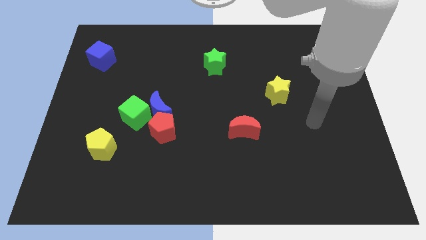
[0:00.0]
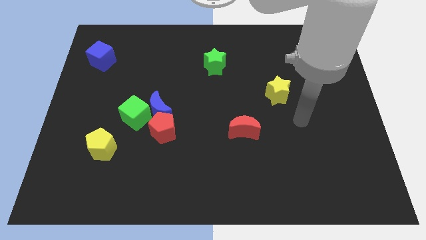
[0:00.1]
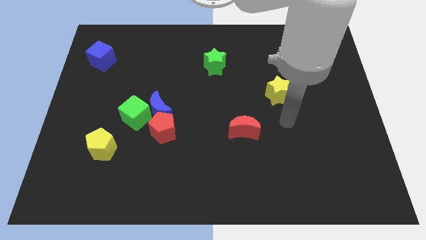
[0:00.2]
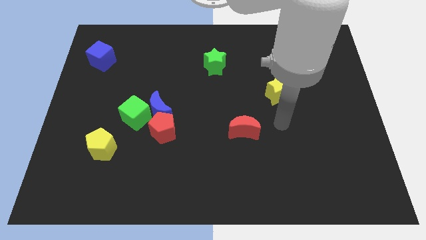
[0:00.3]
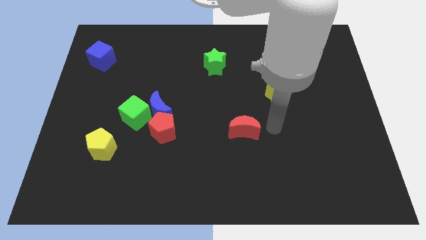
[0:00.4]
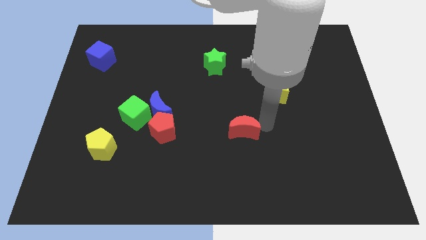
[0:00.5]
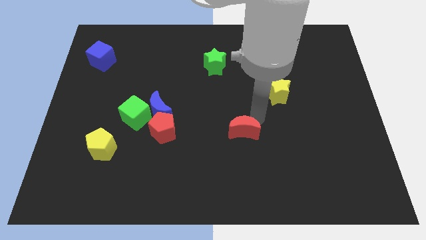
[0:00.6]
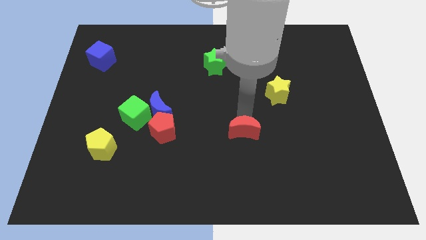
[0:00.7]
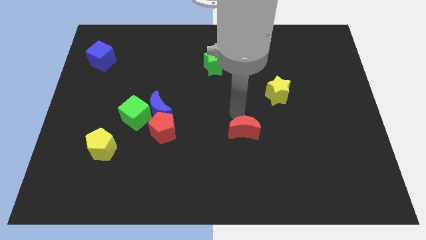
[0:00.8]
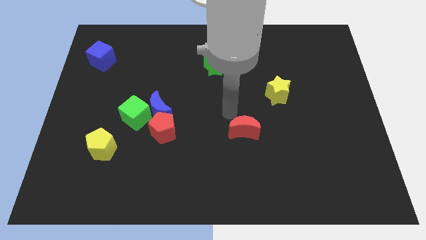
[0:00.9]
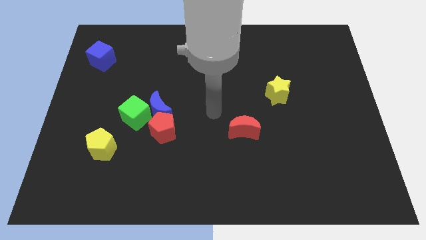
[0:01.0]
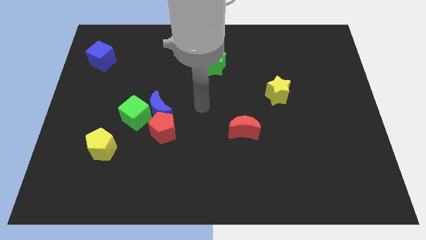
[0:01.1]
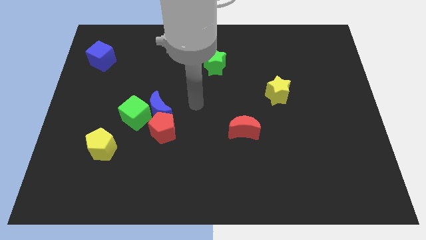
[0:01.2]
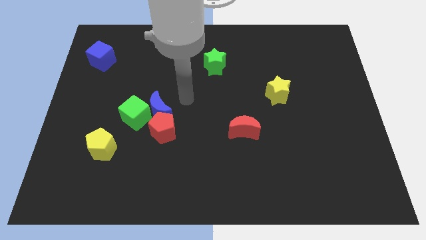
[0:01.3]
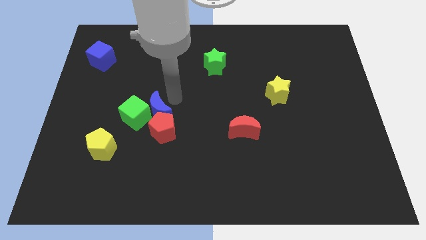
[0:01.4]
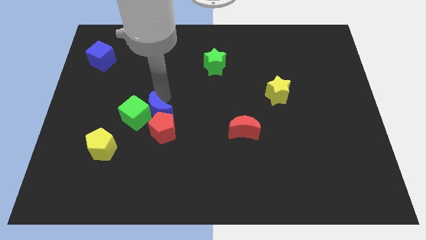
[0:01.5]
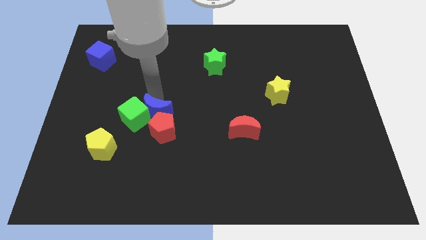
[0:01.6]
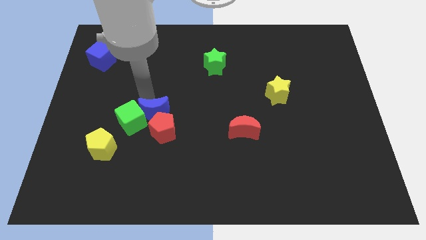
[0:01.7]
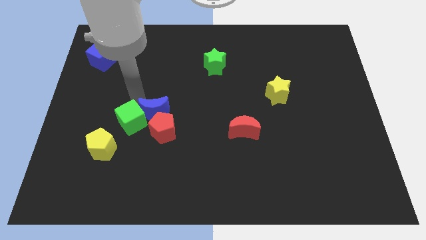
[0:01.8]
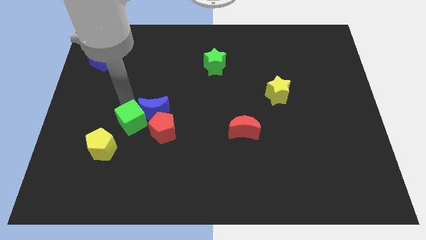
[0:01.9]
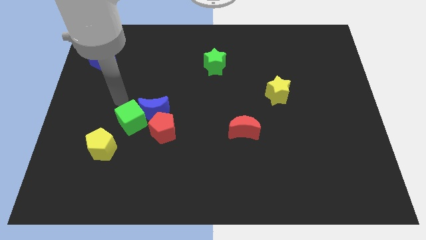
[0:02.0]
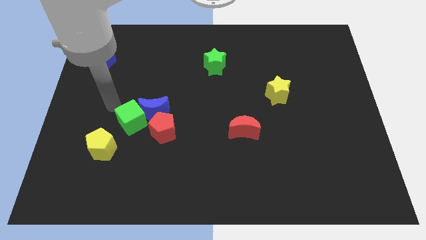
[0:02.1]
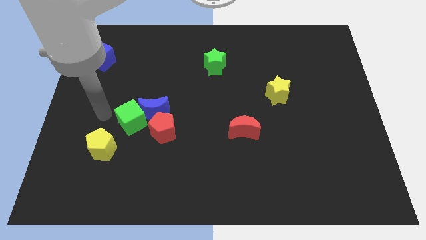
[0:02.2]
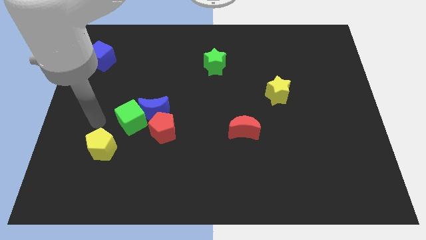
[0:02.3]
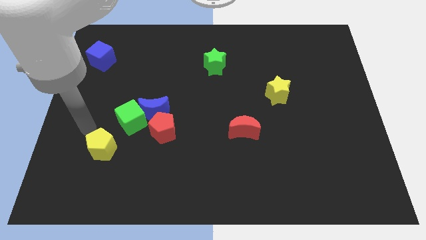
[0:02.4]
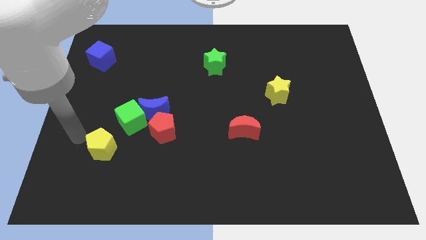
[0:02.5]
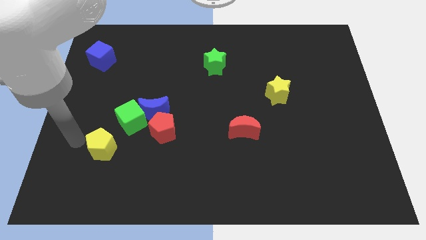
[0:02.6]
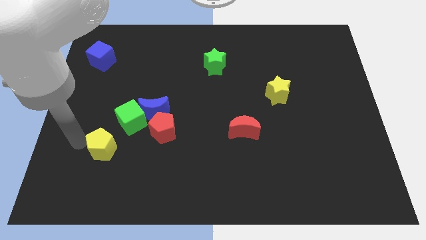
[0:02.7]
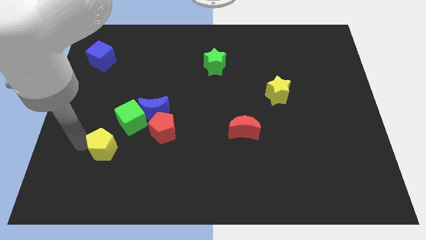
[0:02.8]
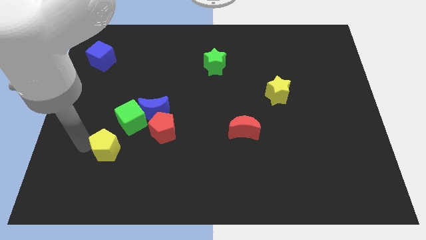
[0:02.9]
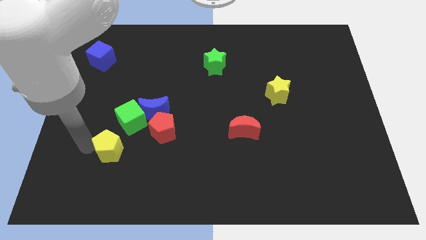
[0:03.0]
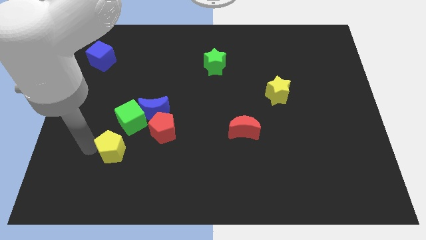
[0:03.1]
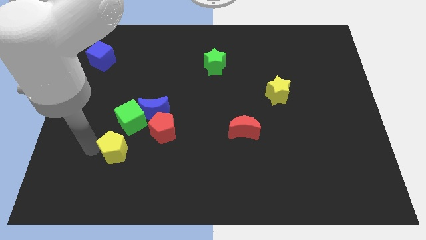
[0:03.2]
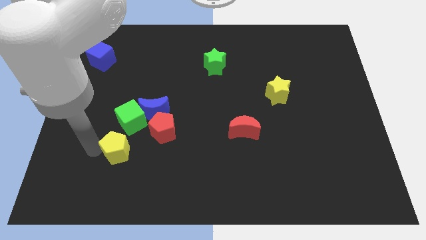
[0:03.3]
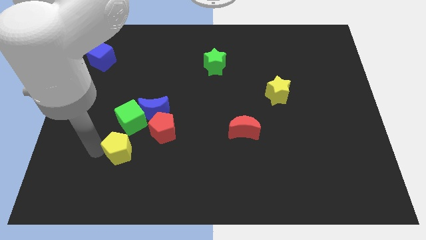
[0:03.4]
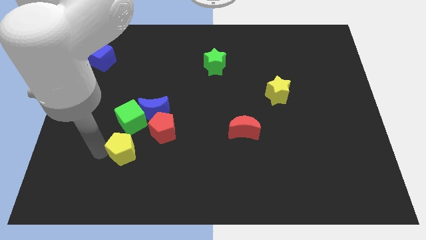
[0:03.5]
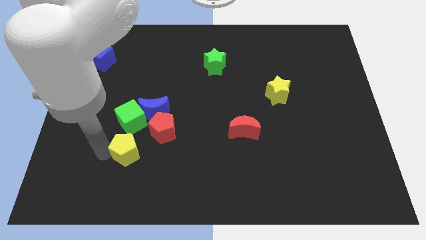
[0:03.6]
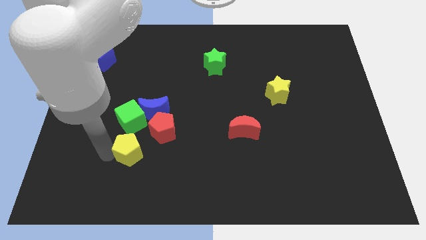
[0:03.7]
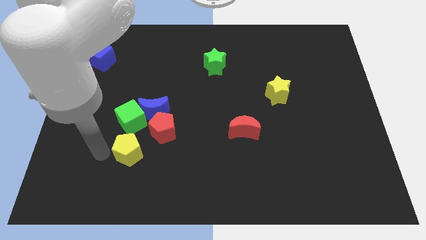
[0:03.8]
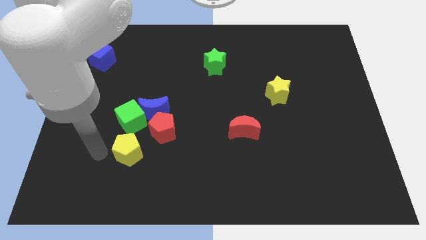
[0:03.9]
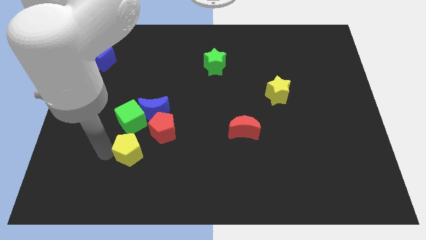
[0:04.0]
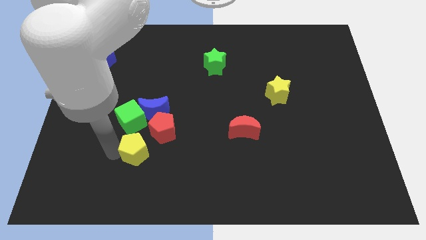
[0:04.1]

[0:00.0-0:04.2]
move the yellow pentagon right a little bit

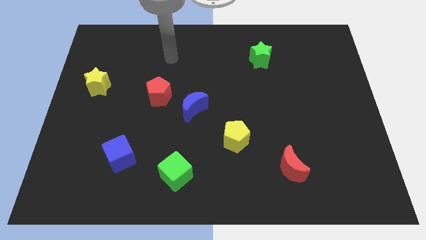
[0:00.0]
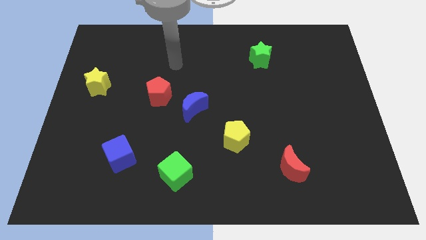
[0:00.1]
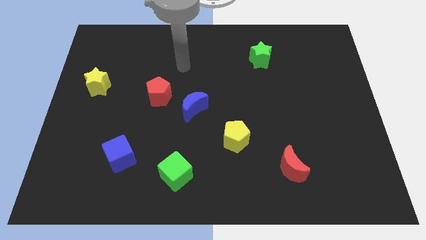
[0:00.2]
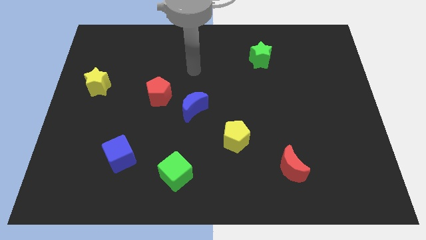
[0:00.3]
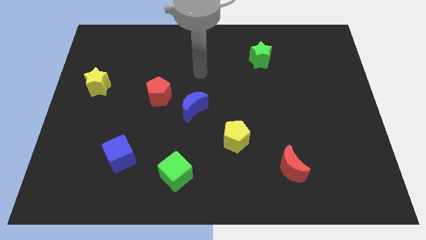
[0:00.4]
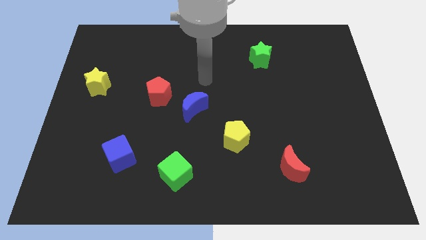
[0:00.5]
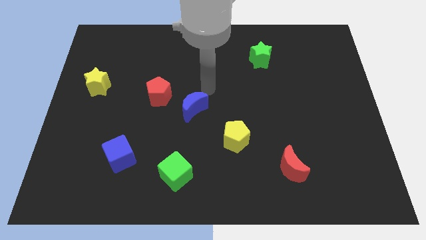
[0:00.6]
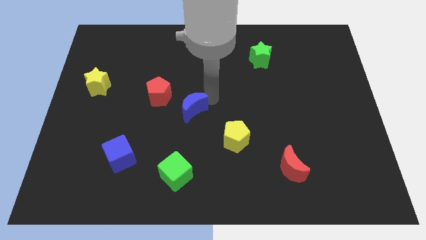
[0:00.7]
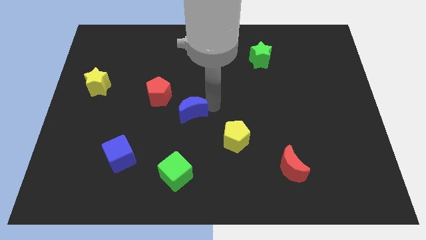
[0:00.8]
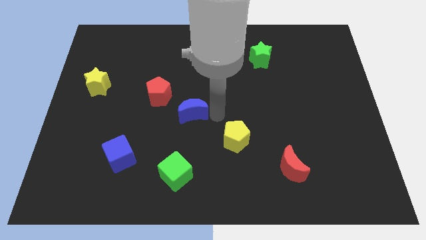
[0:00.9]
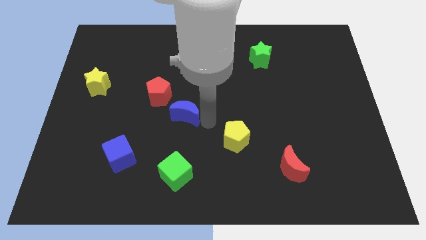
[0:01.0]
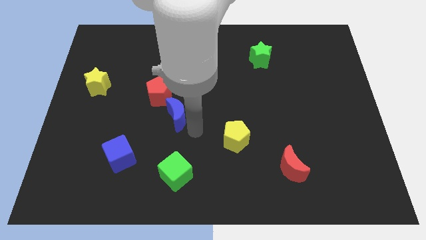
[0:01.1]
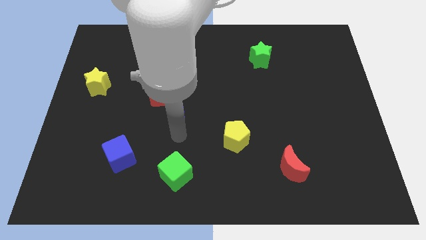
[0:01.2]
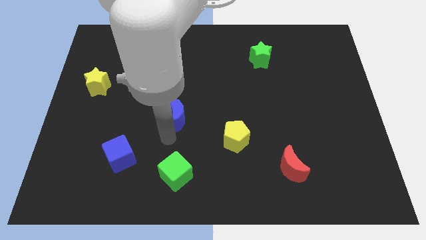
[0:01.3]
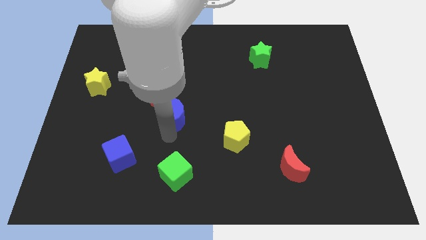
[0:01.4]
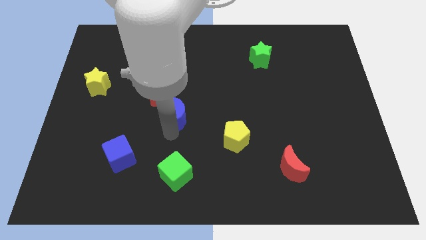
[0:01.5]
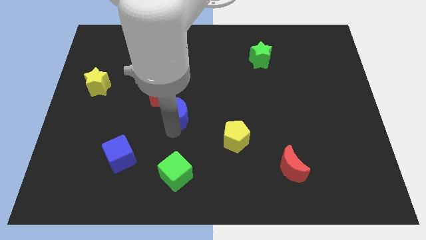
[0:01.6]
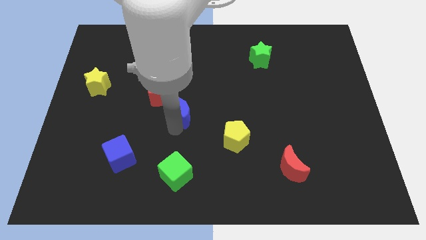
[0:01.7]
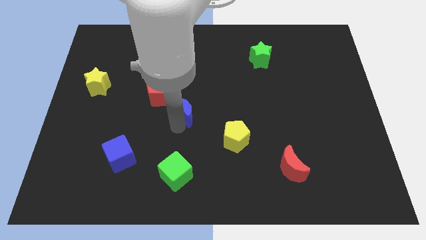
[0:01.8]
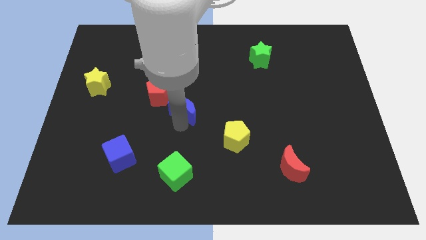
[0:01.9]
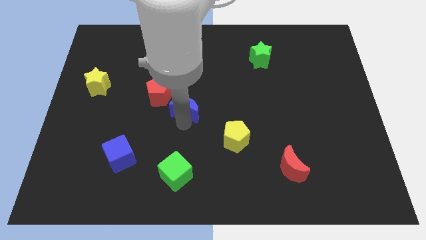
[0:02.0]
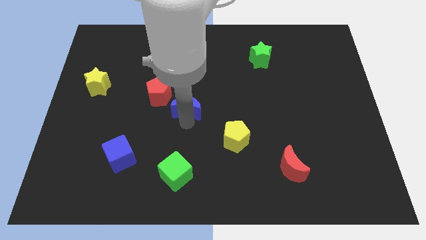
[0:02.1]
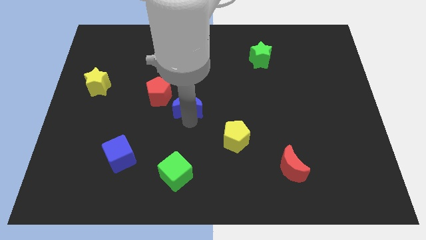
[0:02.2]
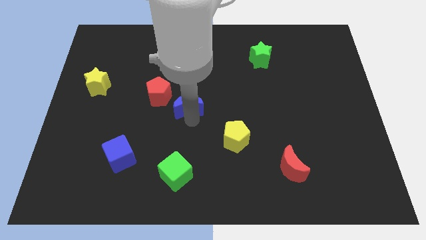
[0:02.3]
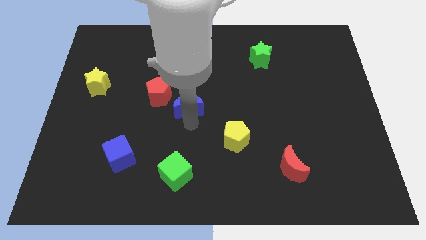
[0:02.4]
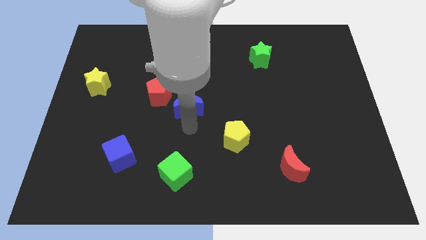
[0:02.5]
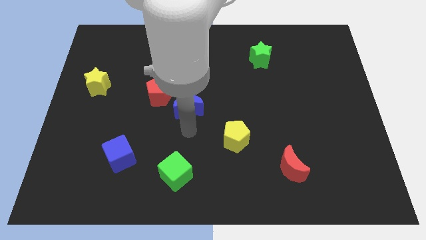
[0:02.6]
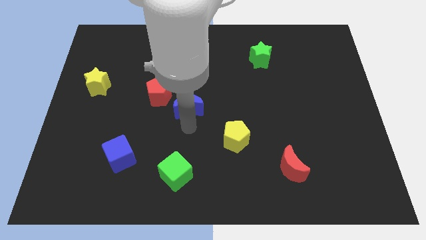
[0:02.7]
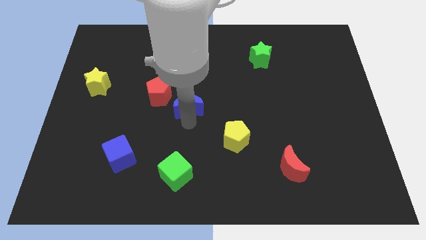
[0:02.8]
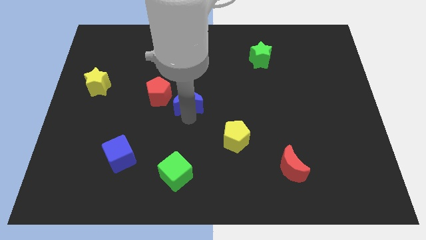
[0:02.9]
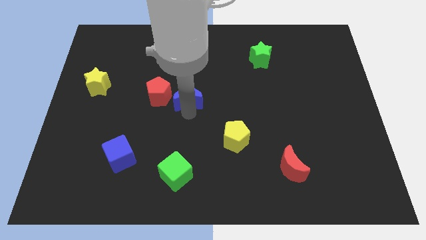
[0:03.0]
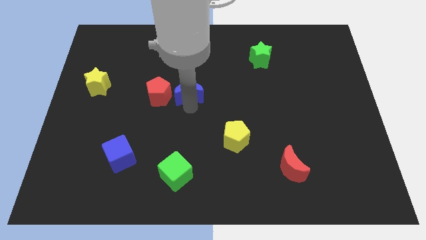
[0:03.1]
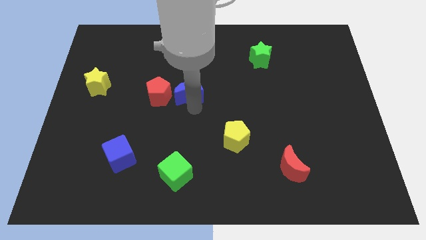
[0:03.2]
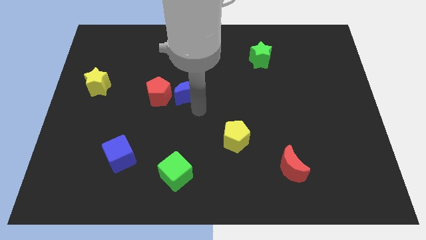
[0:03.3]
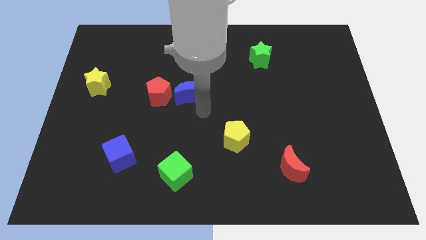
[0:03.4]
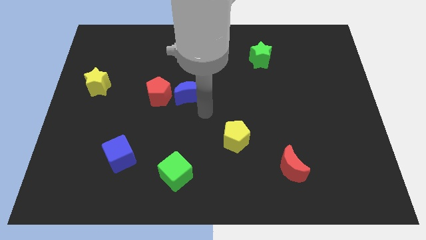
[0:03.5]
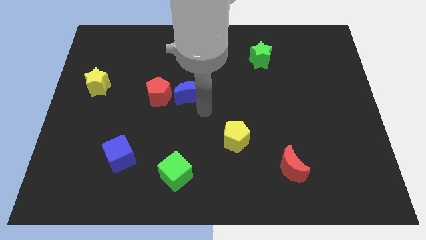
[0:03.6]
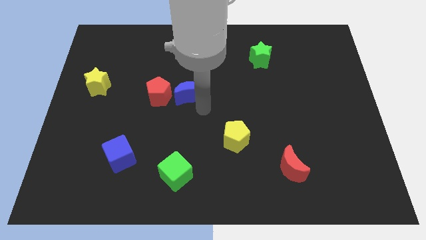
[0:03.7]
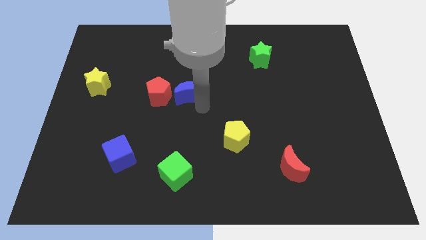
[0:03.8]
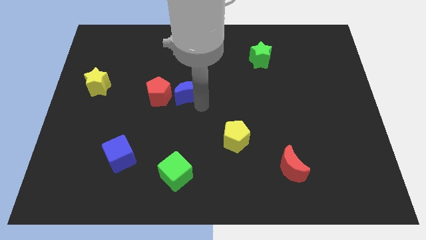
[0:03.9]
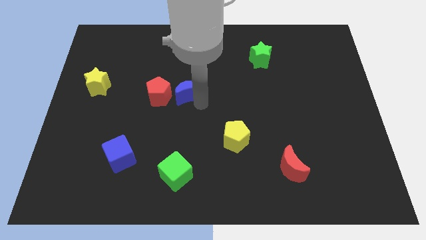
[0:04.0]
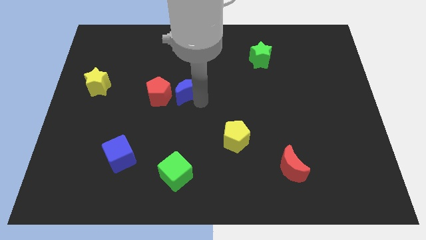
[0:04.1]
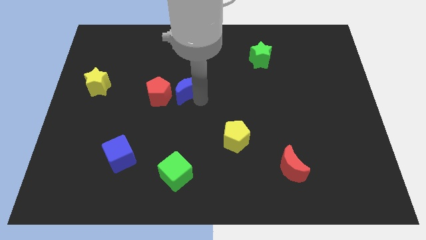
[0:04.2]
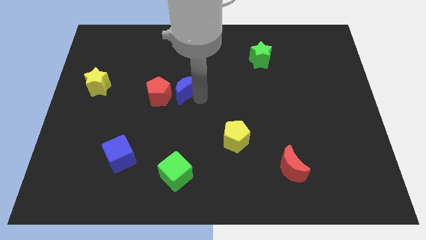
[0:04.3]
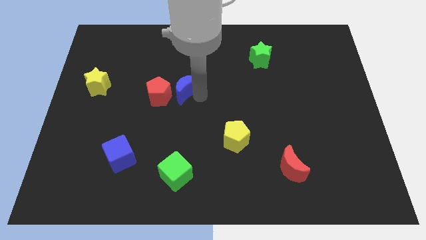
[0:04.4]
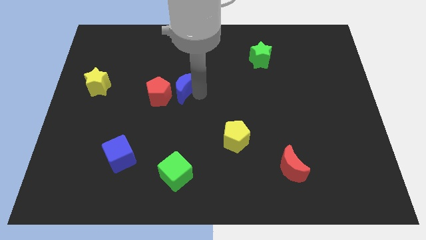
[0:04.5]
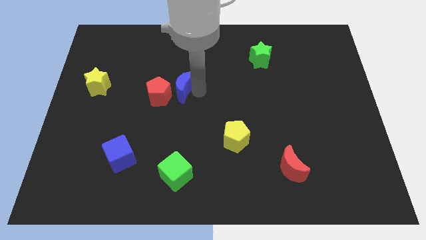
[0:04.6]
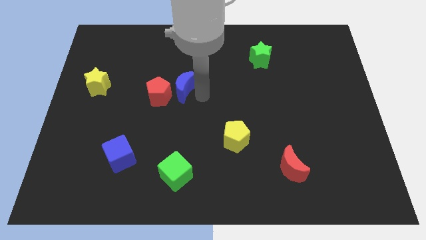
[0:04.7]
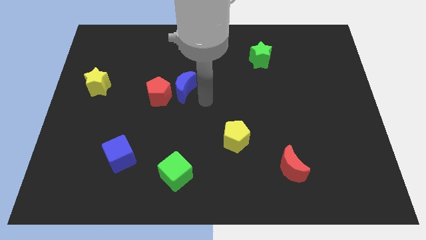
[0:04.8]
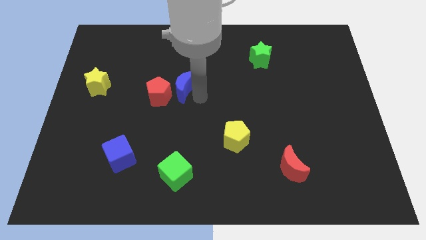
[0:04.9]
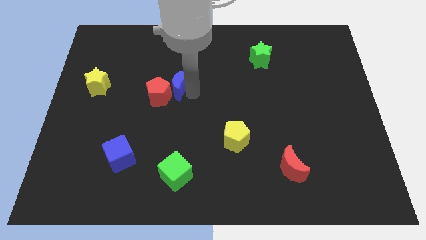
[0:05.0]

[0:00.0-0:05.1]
slightly push the blue moon upwards and left diagonally
